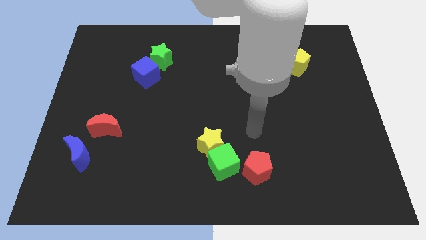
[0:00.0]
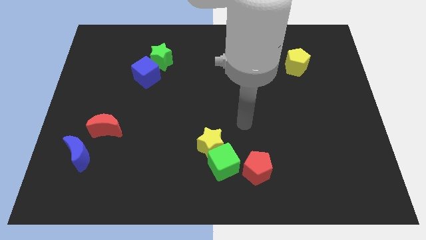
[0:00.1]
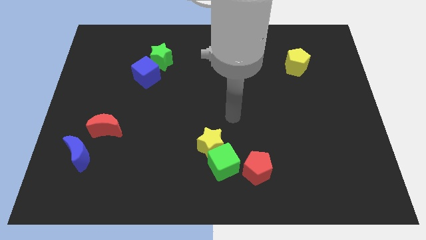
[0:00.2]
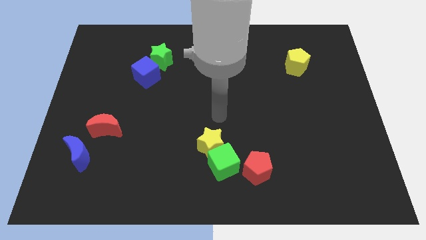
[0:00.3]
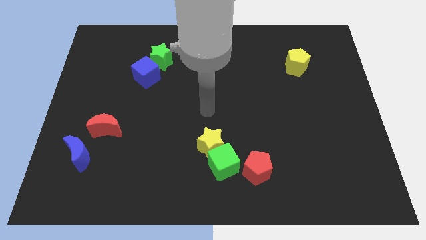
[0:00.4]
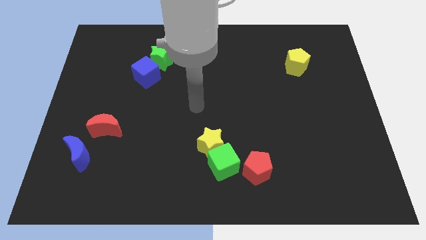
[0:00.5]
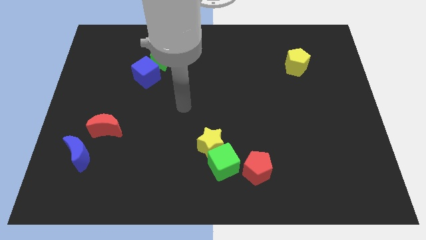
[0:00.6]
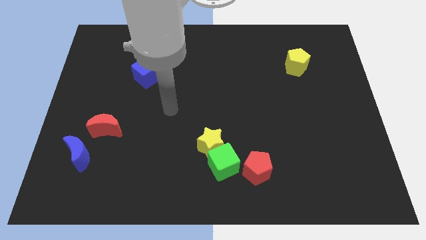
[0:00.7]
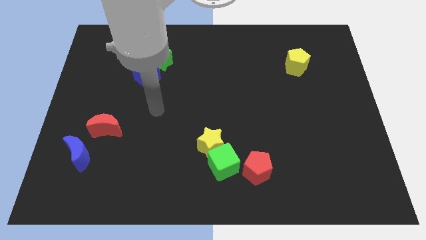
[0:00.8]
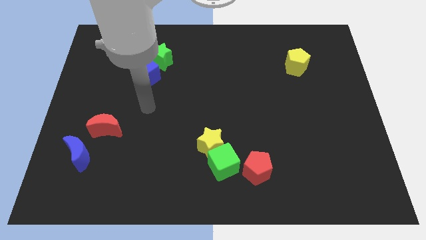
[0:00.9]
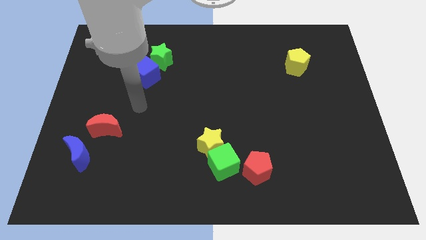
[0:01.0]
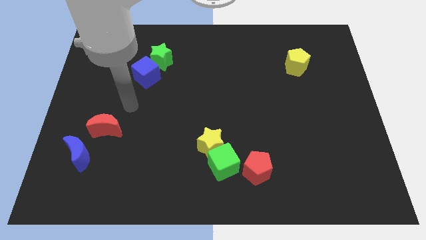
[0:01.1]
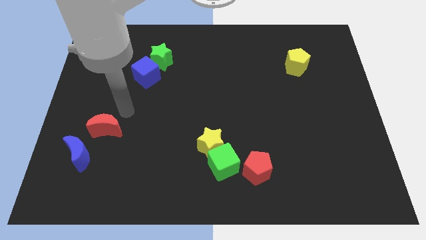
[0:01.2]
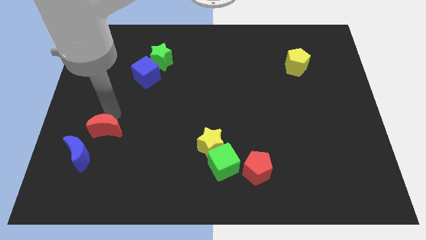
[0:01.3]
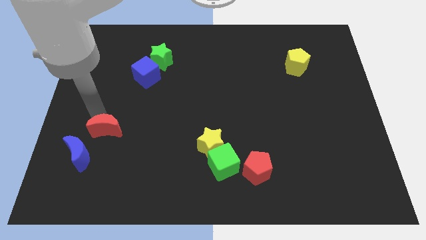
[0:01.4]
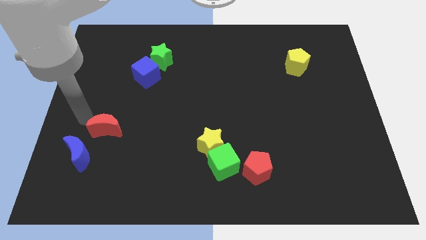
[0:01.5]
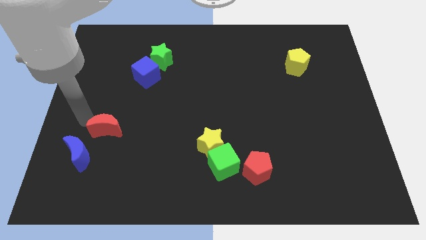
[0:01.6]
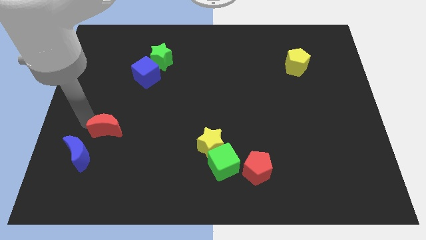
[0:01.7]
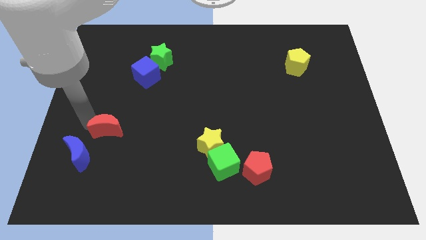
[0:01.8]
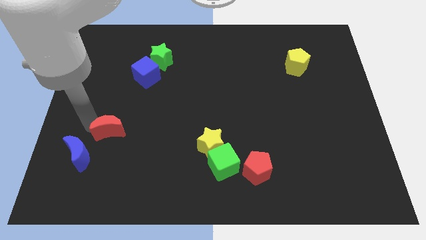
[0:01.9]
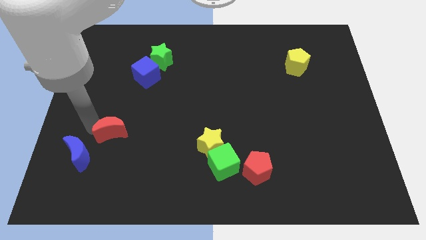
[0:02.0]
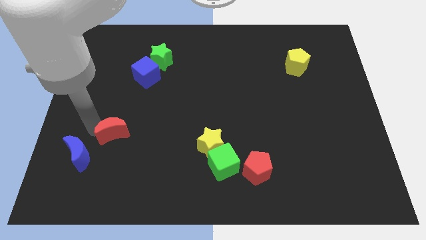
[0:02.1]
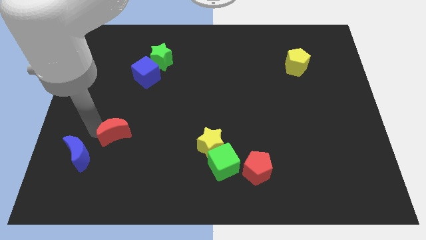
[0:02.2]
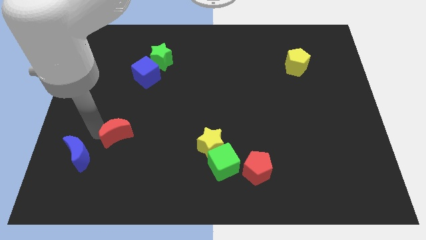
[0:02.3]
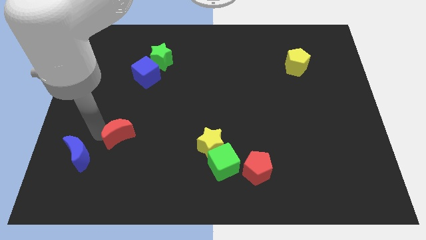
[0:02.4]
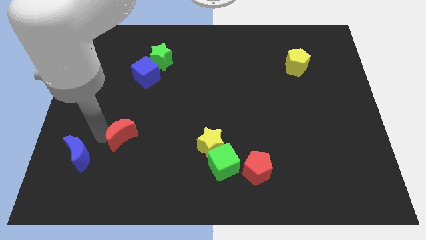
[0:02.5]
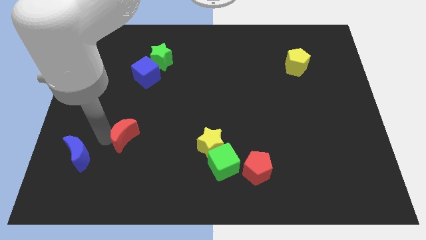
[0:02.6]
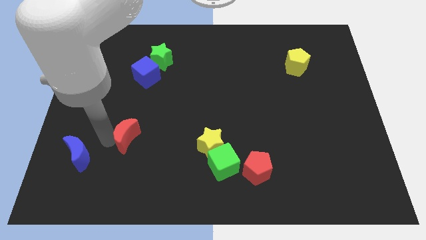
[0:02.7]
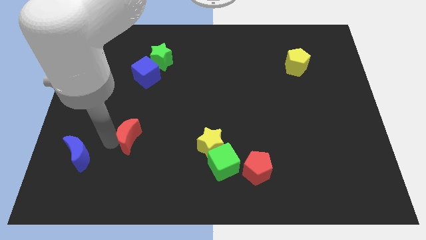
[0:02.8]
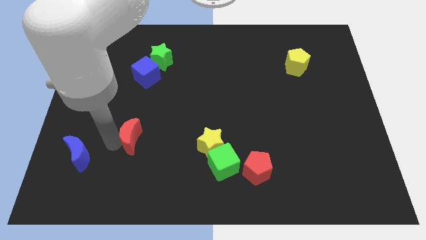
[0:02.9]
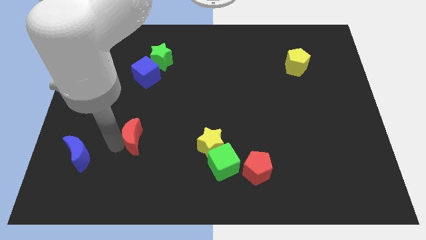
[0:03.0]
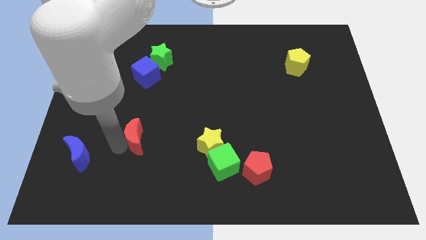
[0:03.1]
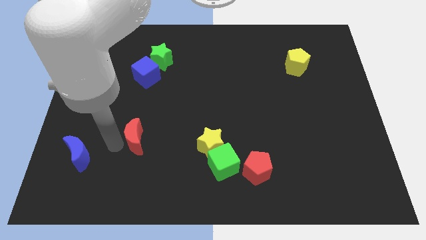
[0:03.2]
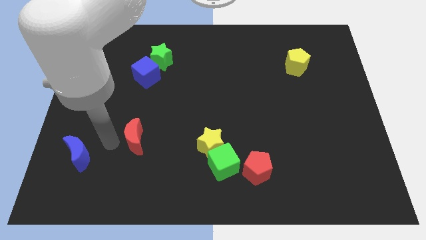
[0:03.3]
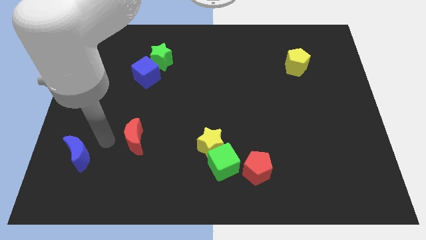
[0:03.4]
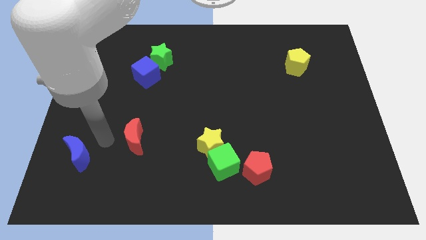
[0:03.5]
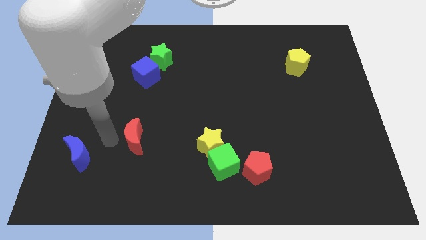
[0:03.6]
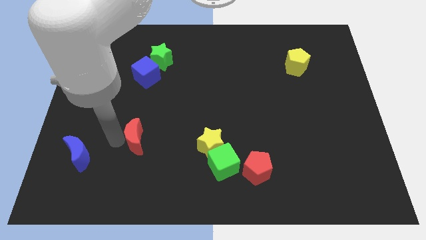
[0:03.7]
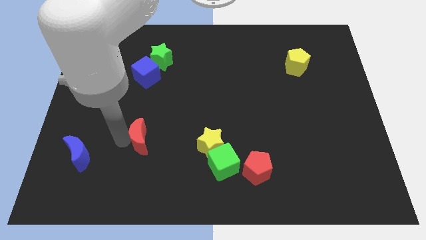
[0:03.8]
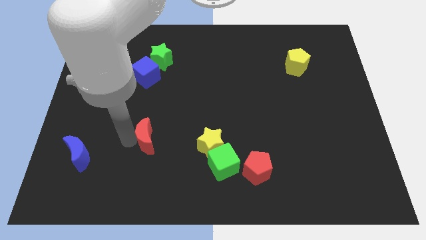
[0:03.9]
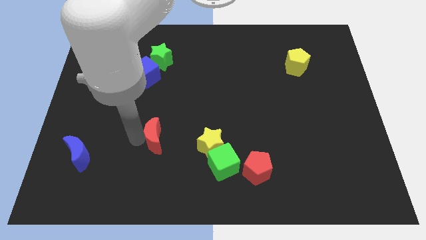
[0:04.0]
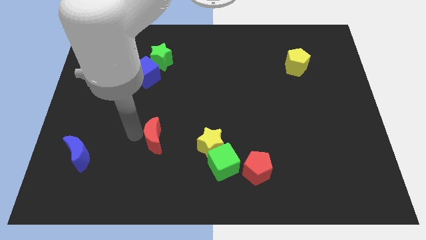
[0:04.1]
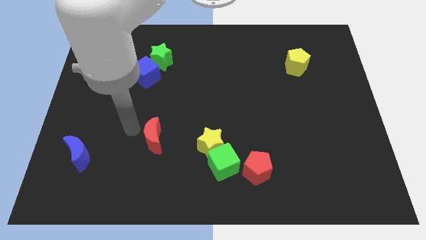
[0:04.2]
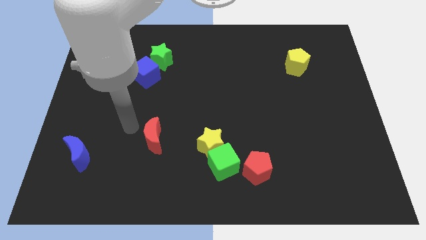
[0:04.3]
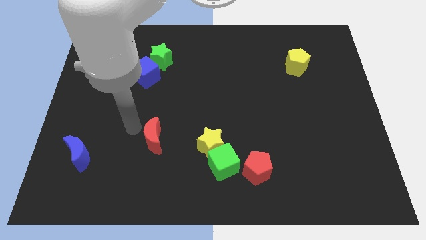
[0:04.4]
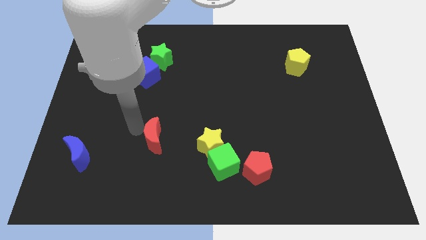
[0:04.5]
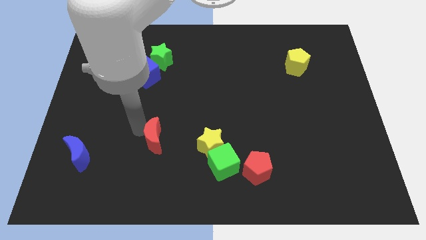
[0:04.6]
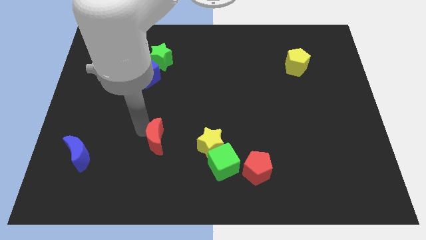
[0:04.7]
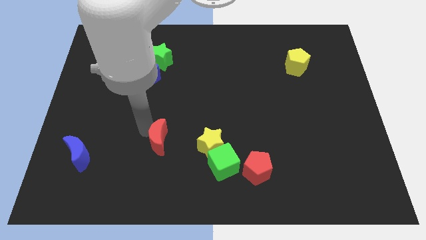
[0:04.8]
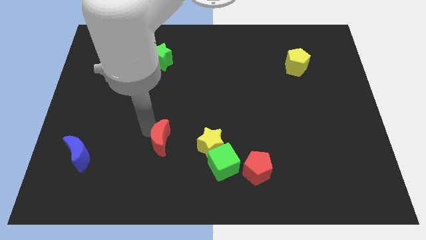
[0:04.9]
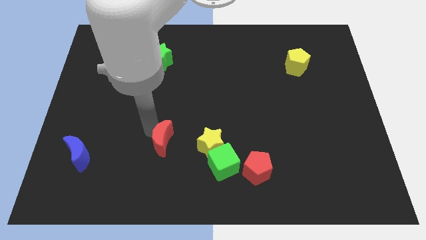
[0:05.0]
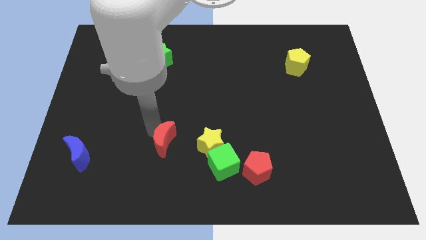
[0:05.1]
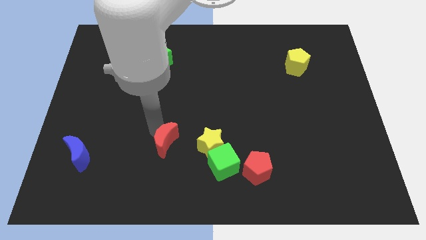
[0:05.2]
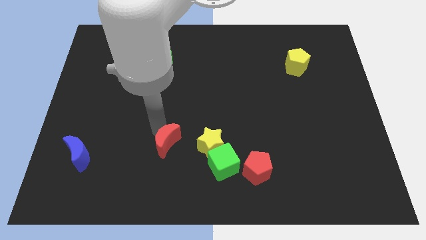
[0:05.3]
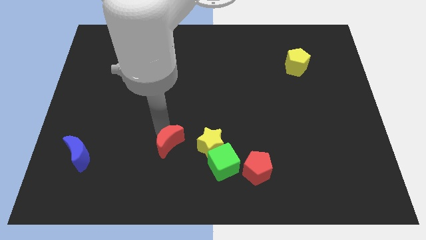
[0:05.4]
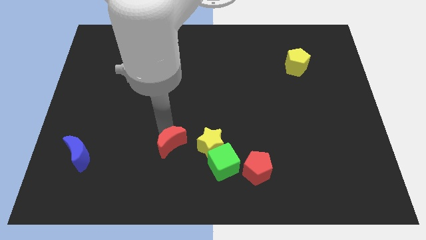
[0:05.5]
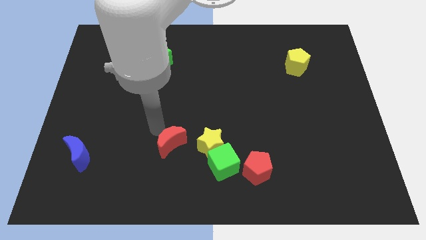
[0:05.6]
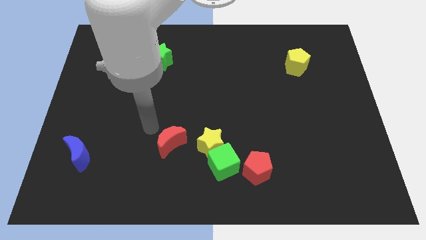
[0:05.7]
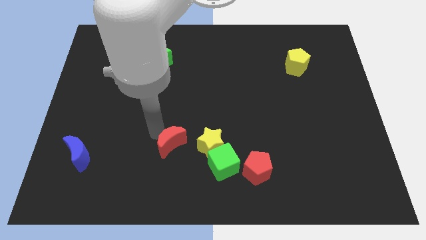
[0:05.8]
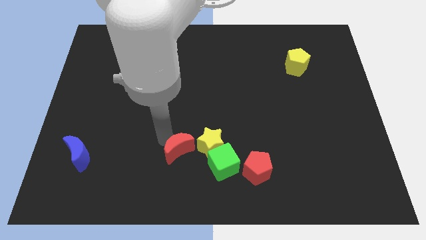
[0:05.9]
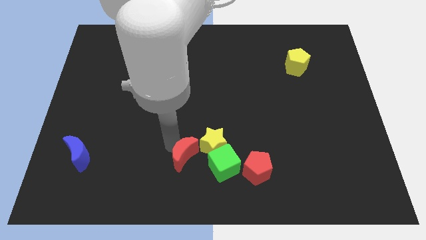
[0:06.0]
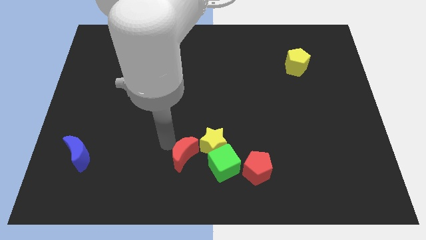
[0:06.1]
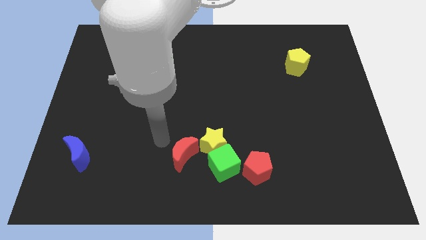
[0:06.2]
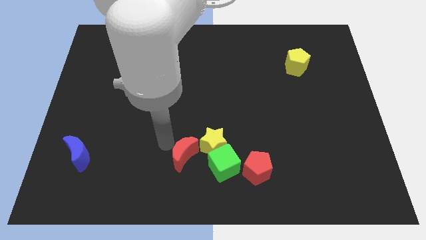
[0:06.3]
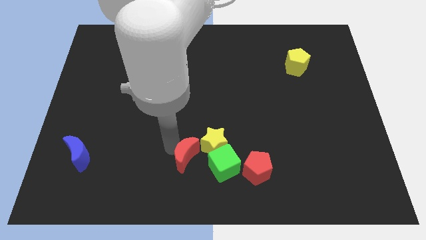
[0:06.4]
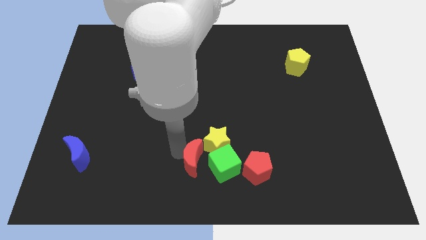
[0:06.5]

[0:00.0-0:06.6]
move the red moon just left of the red pentagon

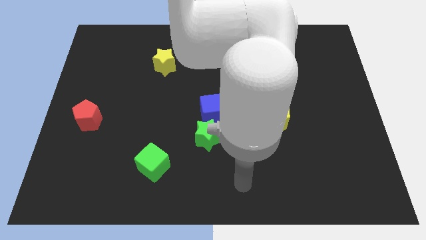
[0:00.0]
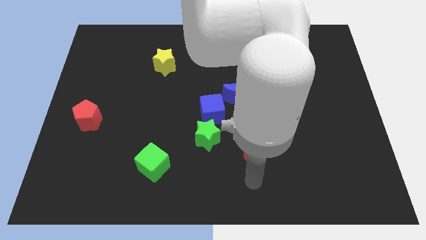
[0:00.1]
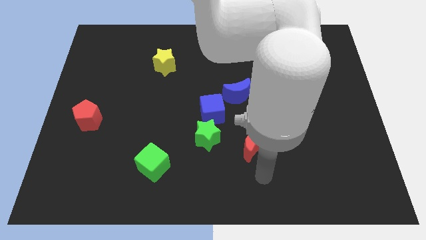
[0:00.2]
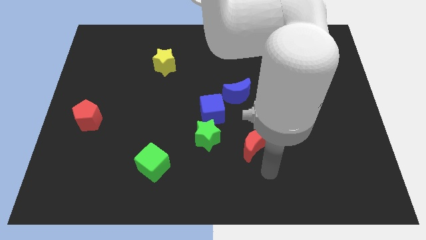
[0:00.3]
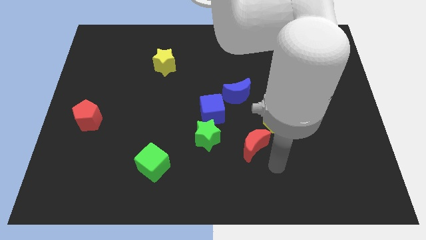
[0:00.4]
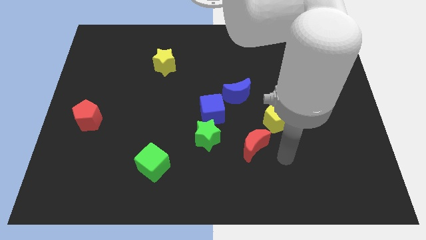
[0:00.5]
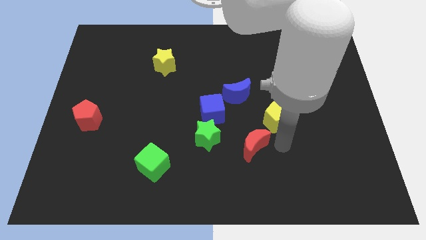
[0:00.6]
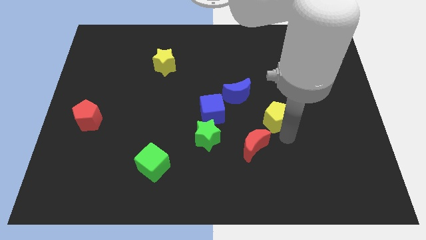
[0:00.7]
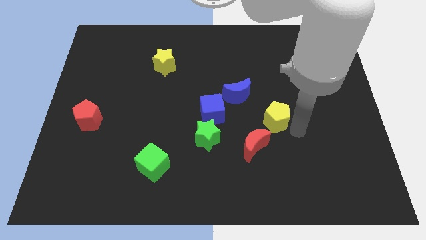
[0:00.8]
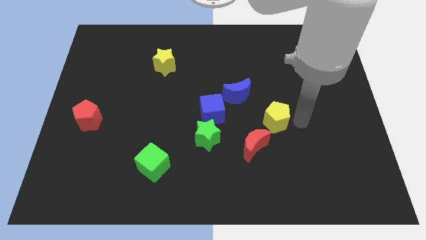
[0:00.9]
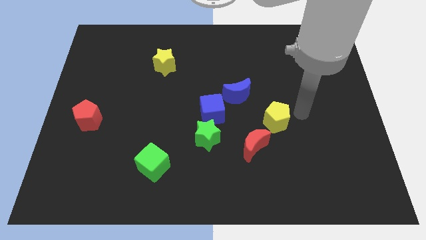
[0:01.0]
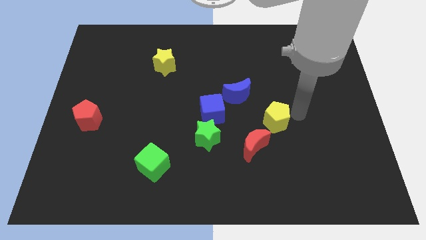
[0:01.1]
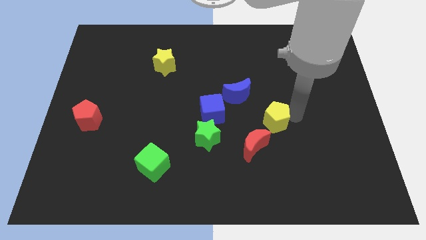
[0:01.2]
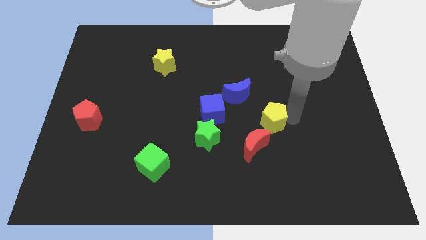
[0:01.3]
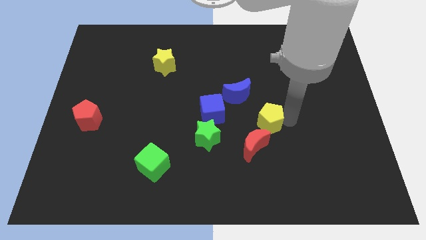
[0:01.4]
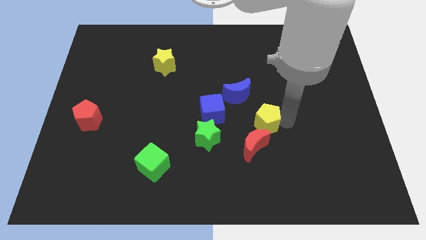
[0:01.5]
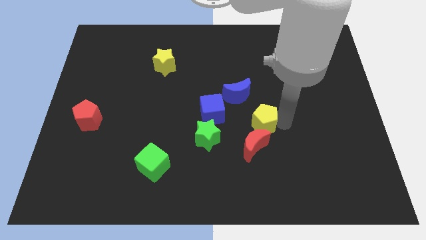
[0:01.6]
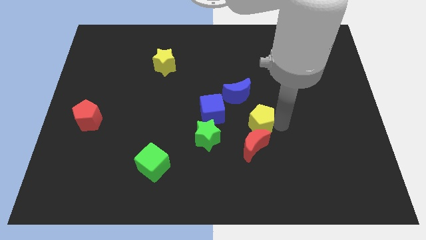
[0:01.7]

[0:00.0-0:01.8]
put the yellow pentagon to the bottom of the blue moon
